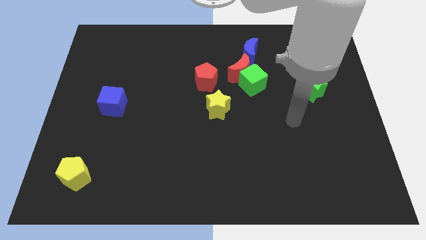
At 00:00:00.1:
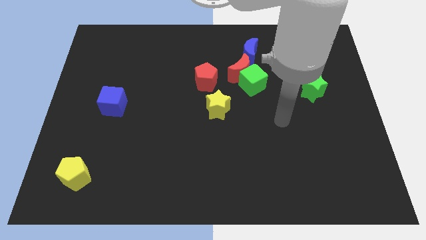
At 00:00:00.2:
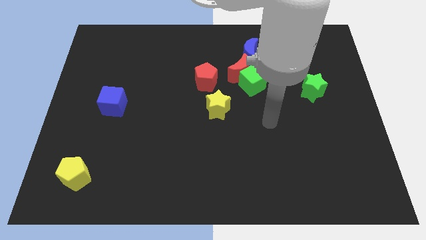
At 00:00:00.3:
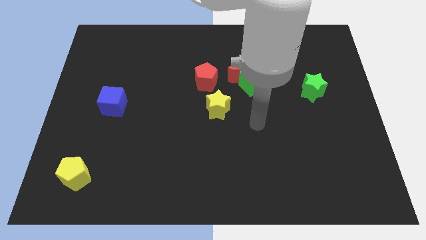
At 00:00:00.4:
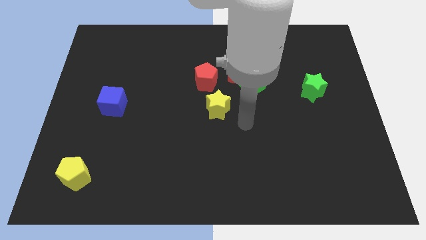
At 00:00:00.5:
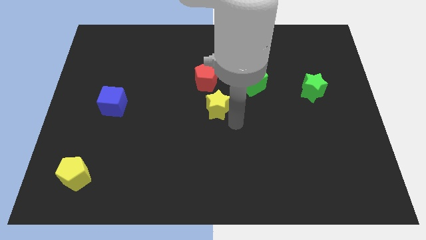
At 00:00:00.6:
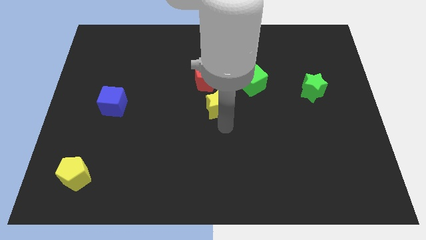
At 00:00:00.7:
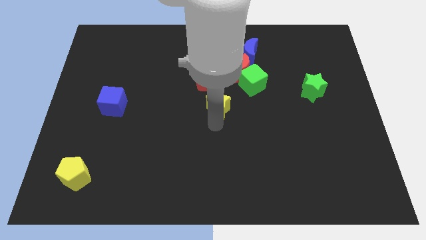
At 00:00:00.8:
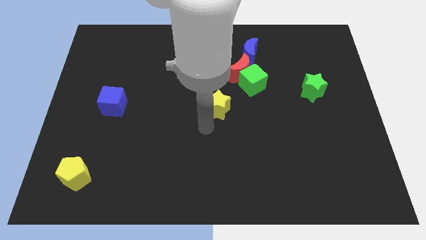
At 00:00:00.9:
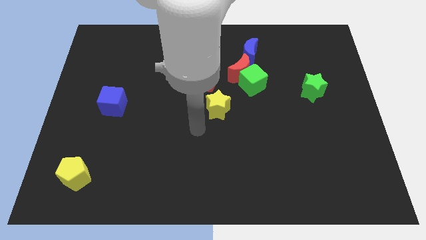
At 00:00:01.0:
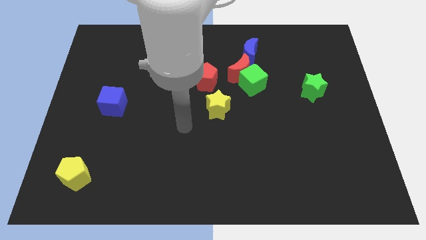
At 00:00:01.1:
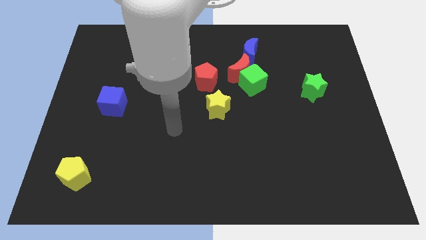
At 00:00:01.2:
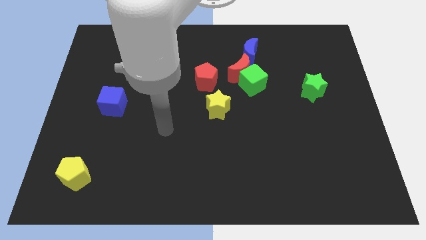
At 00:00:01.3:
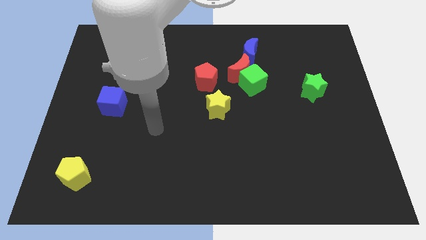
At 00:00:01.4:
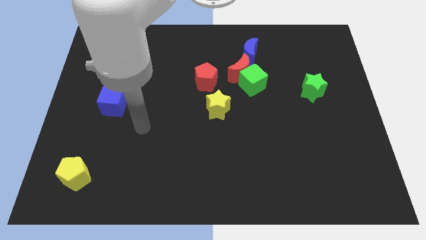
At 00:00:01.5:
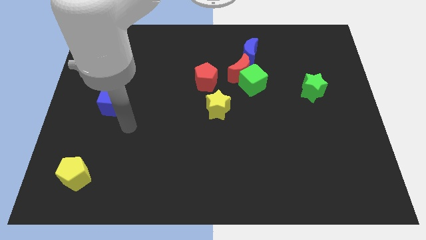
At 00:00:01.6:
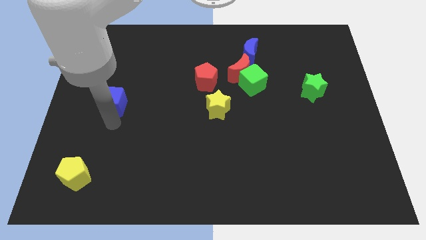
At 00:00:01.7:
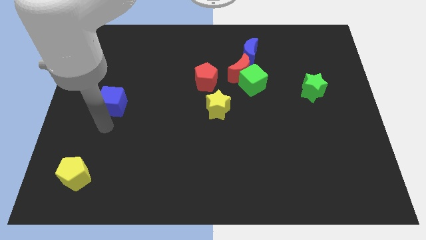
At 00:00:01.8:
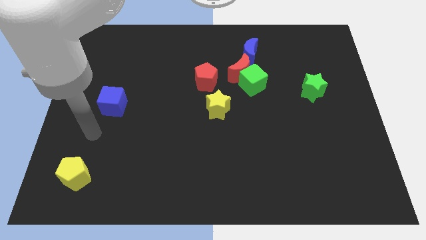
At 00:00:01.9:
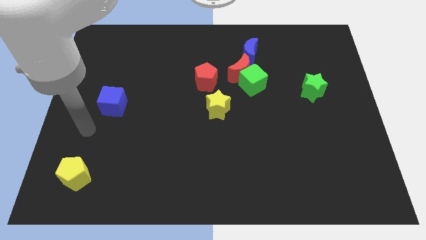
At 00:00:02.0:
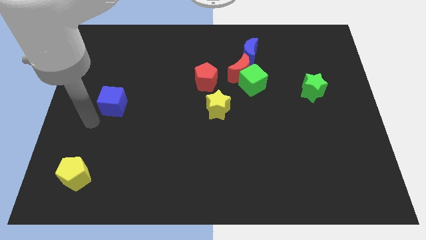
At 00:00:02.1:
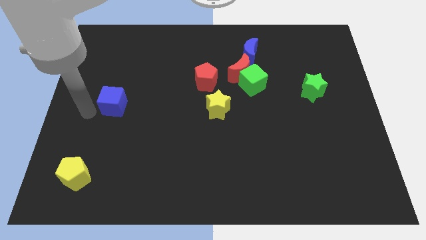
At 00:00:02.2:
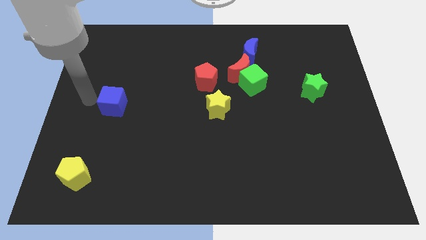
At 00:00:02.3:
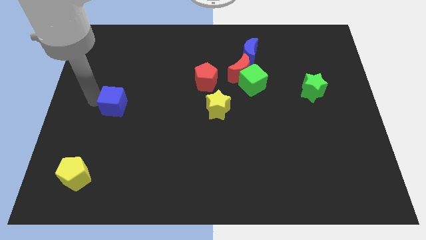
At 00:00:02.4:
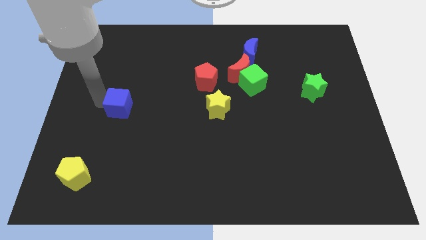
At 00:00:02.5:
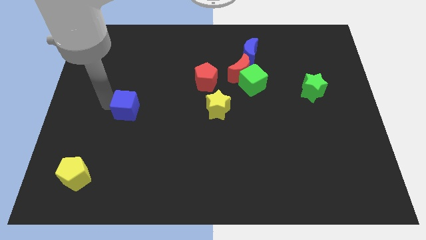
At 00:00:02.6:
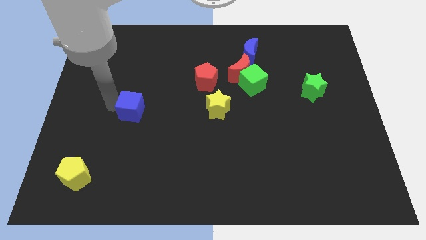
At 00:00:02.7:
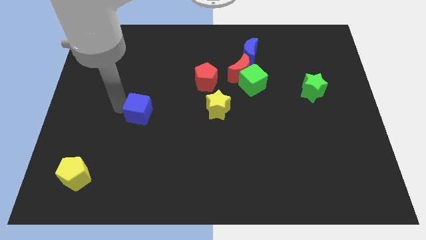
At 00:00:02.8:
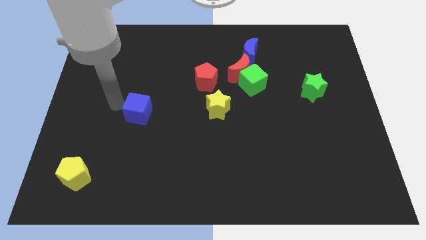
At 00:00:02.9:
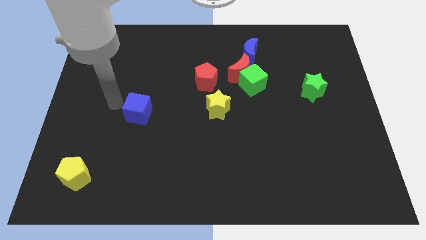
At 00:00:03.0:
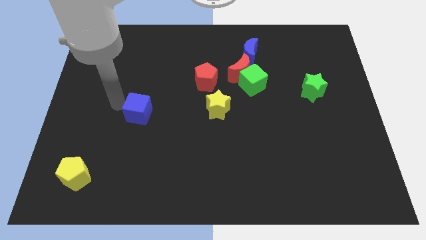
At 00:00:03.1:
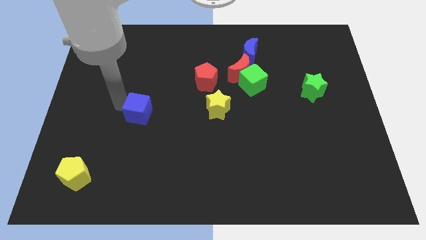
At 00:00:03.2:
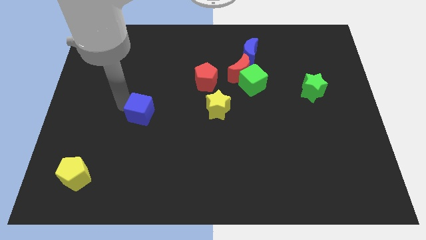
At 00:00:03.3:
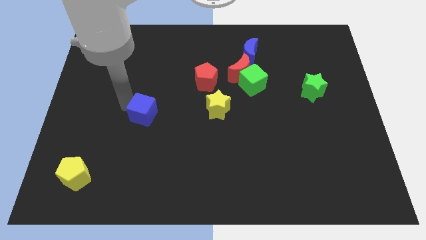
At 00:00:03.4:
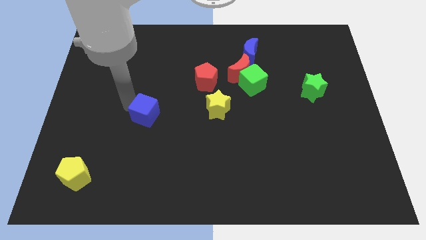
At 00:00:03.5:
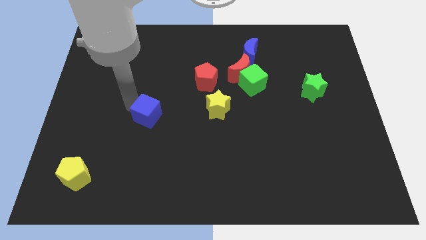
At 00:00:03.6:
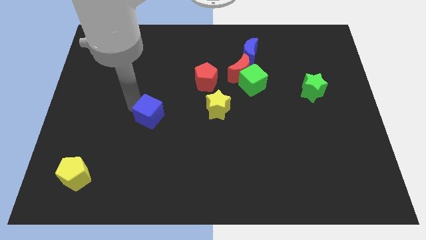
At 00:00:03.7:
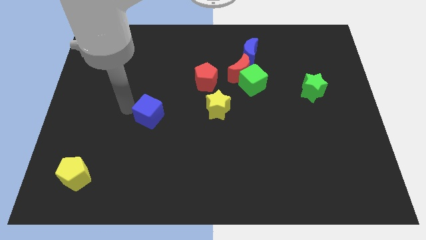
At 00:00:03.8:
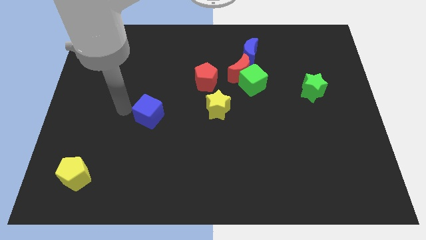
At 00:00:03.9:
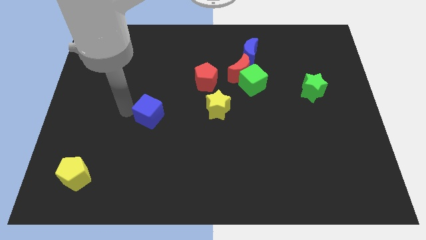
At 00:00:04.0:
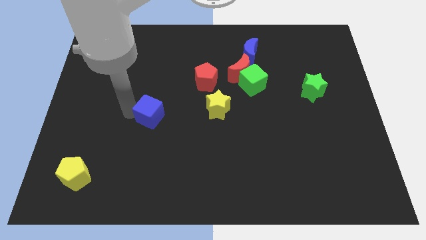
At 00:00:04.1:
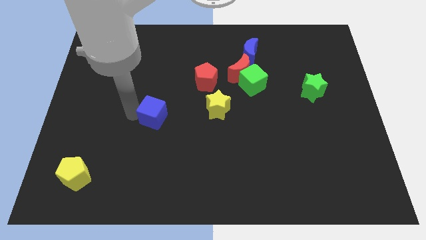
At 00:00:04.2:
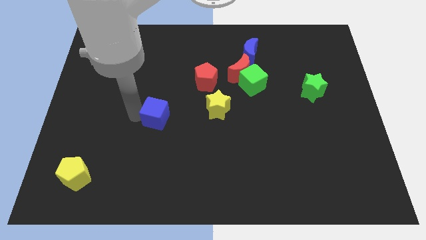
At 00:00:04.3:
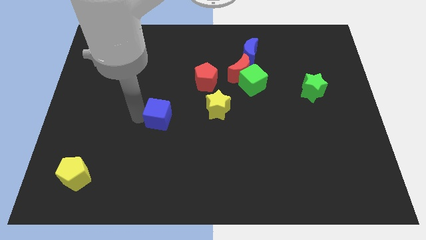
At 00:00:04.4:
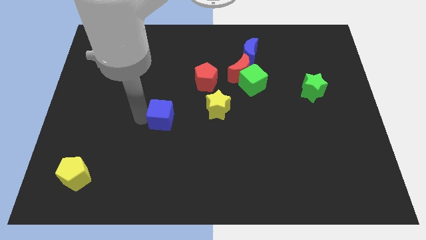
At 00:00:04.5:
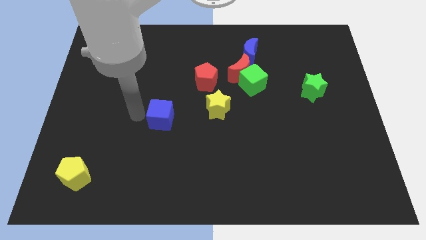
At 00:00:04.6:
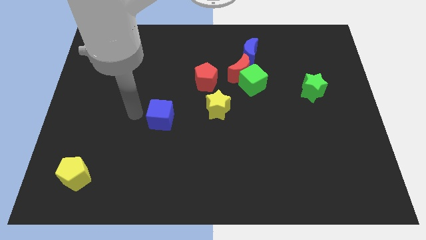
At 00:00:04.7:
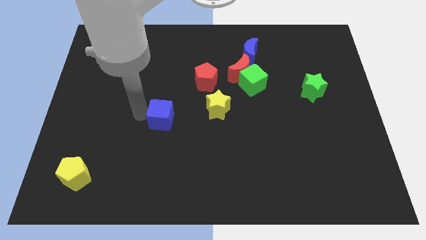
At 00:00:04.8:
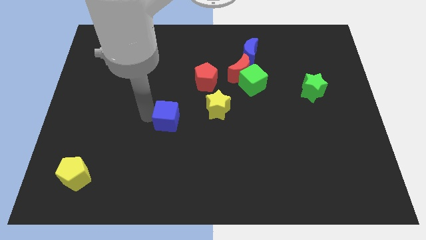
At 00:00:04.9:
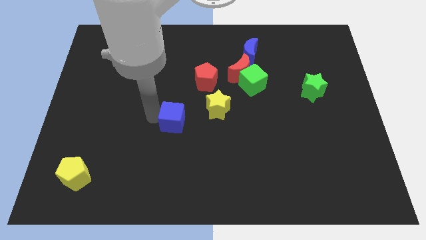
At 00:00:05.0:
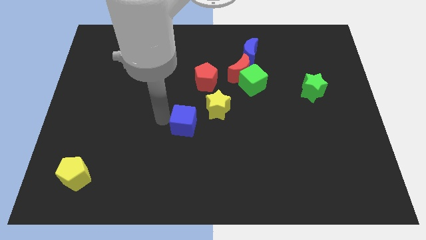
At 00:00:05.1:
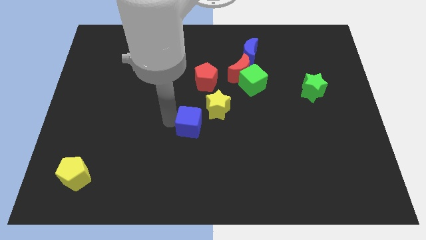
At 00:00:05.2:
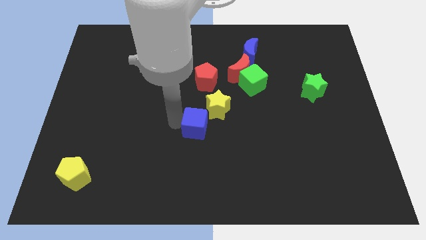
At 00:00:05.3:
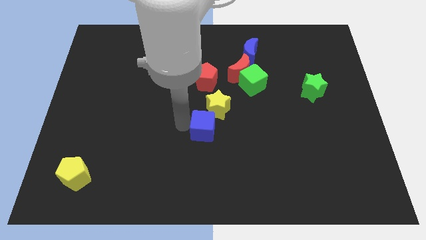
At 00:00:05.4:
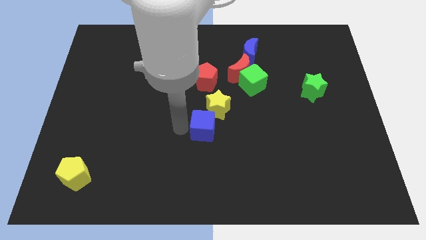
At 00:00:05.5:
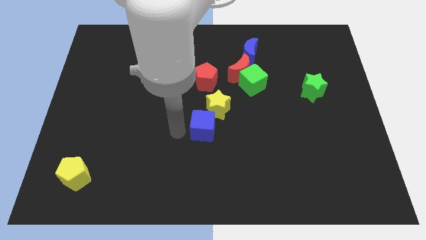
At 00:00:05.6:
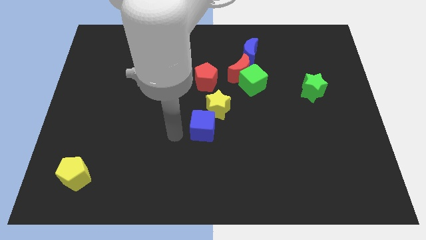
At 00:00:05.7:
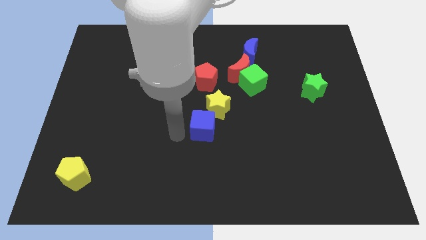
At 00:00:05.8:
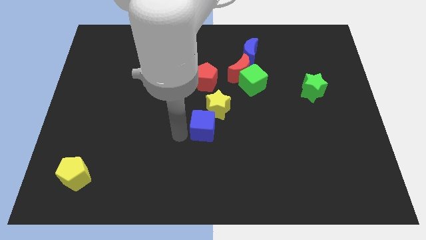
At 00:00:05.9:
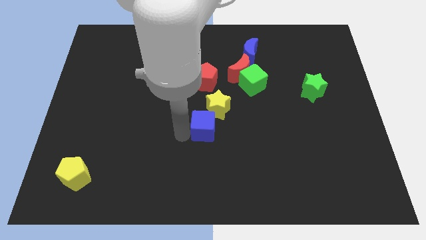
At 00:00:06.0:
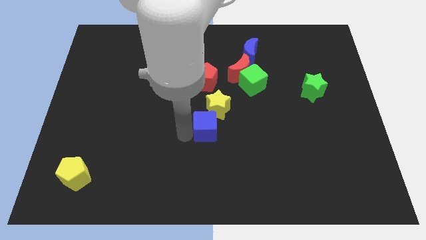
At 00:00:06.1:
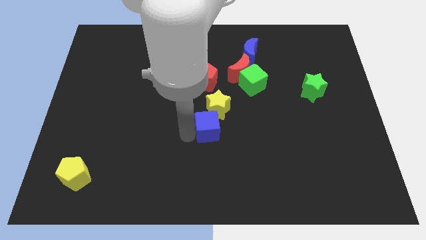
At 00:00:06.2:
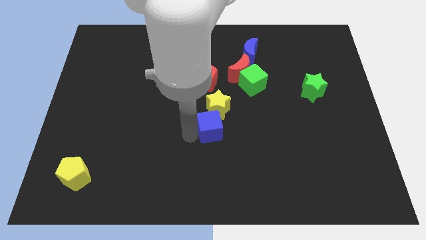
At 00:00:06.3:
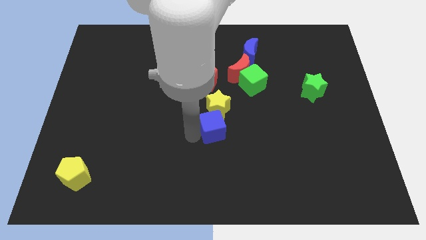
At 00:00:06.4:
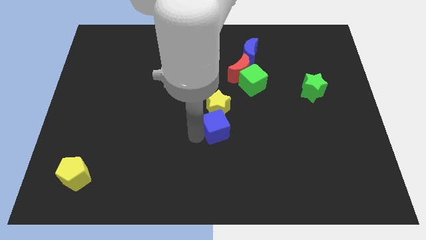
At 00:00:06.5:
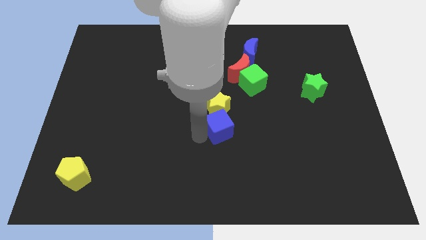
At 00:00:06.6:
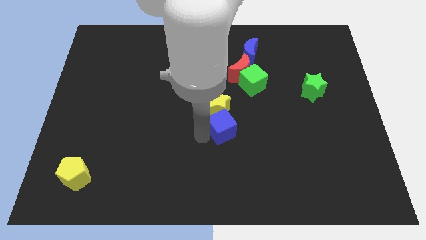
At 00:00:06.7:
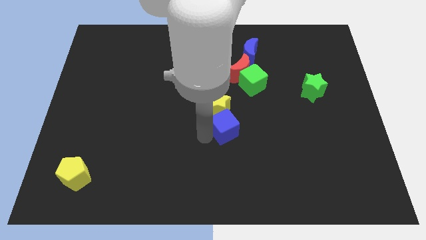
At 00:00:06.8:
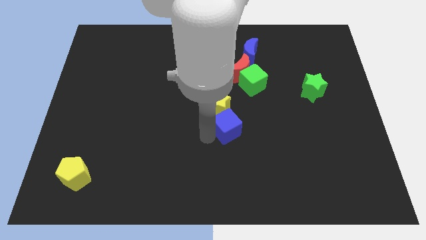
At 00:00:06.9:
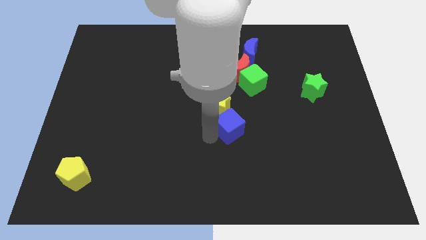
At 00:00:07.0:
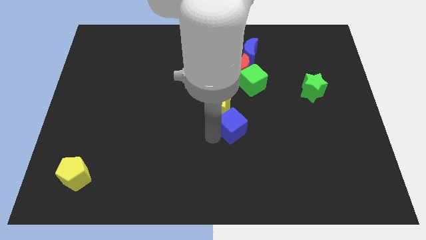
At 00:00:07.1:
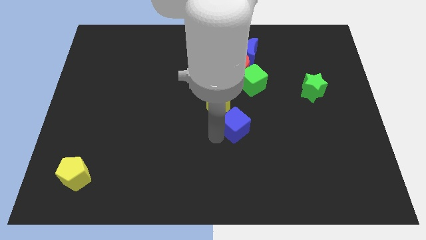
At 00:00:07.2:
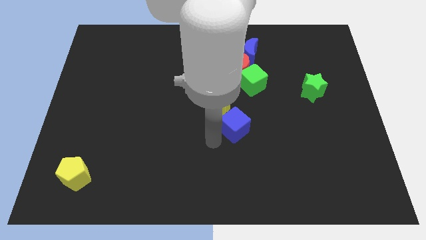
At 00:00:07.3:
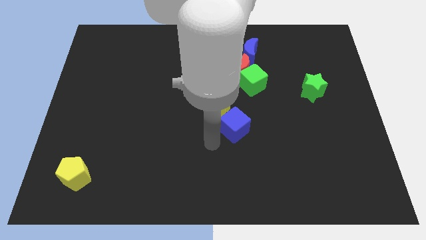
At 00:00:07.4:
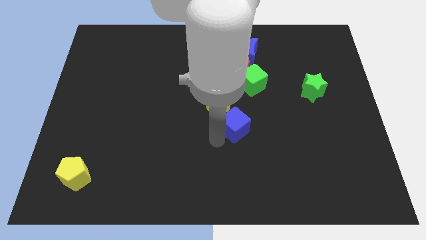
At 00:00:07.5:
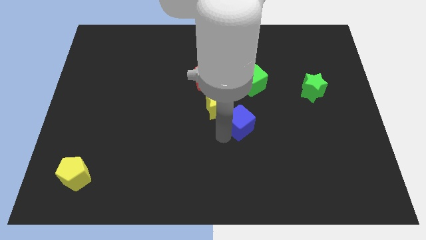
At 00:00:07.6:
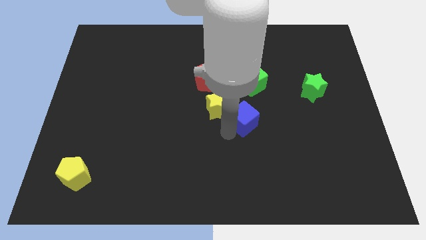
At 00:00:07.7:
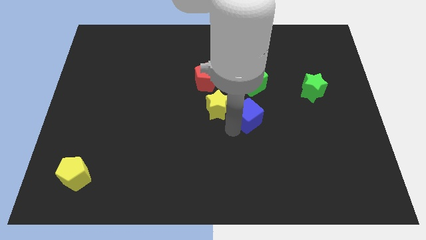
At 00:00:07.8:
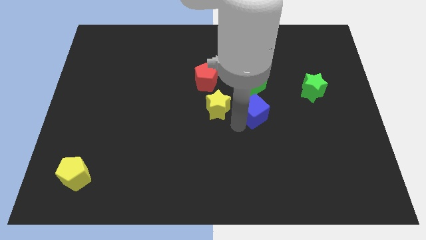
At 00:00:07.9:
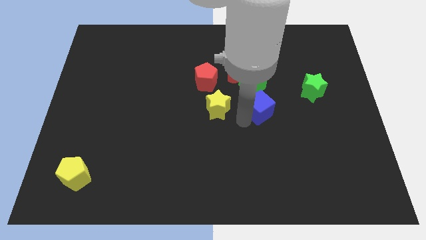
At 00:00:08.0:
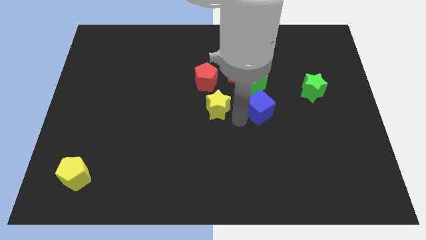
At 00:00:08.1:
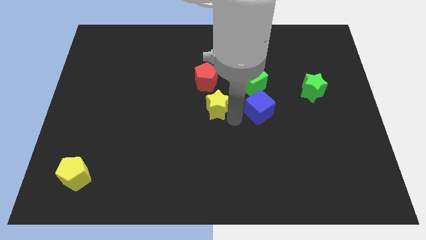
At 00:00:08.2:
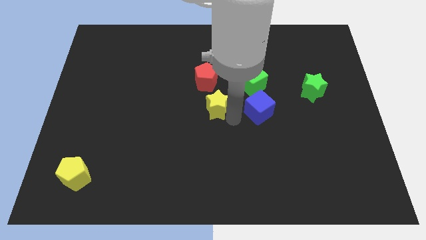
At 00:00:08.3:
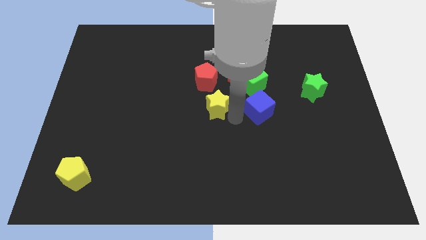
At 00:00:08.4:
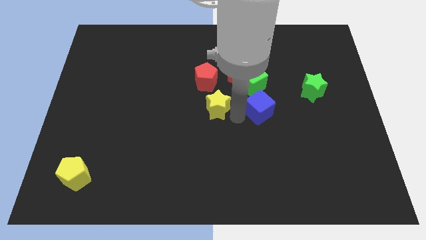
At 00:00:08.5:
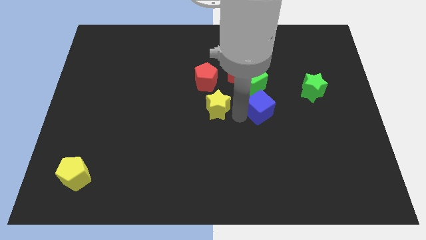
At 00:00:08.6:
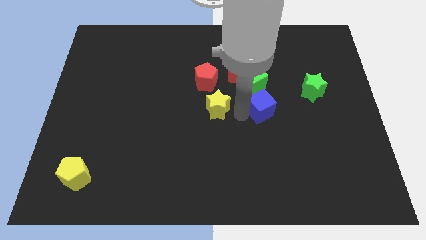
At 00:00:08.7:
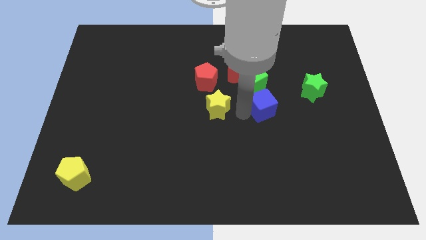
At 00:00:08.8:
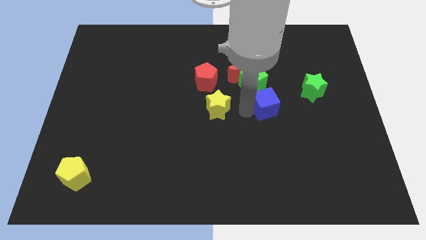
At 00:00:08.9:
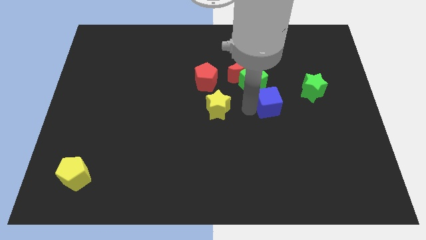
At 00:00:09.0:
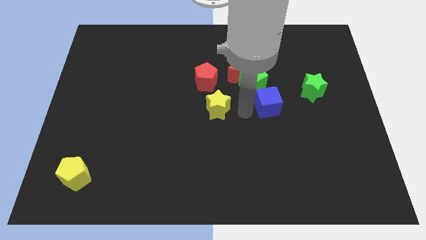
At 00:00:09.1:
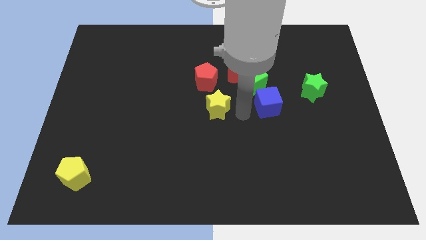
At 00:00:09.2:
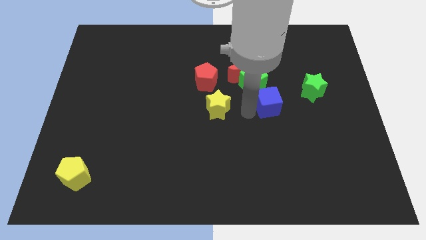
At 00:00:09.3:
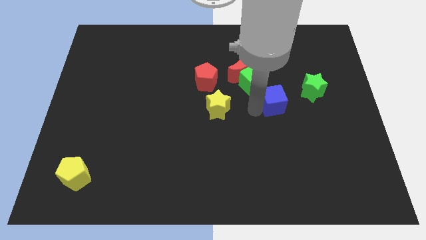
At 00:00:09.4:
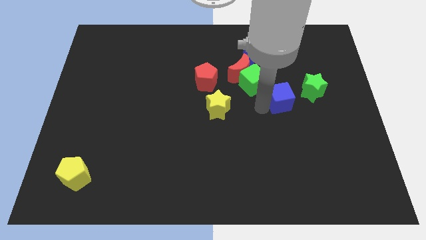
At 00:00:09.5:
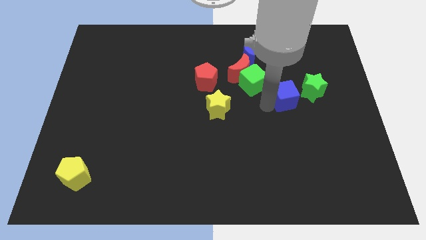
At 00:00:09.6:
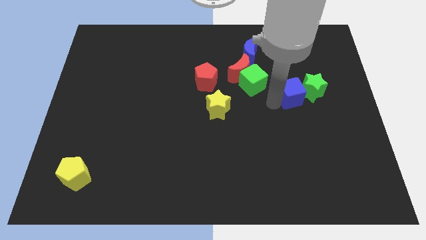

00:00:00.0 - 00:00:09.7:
slide the blue cube close to the green star
